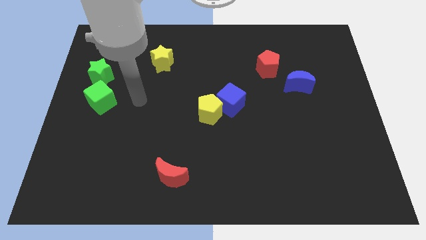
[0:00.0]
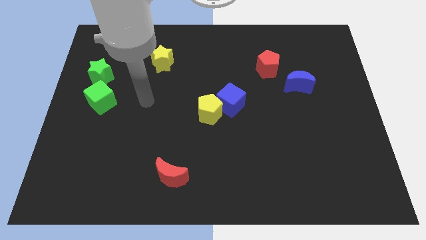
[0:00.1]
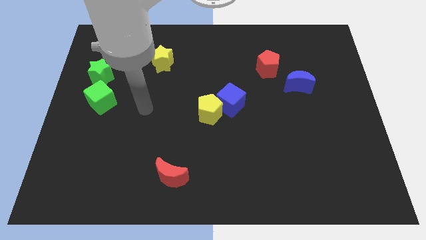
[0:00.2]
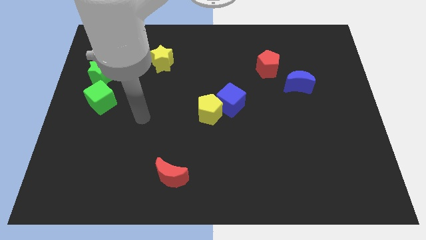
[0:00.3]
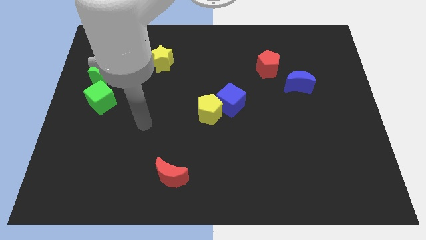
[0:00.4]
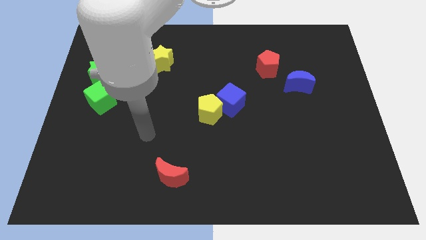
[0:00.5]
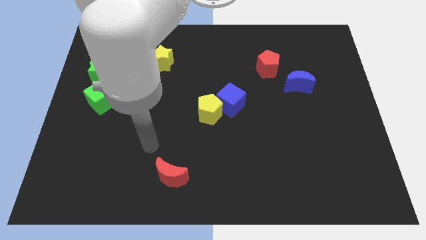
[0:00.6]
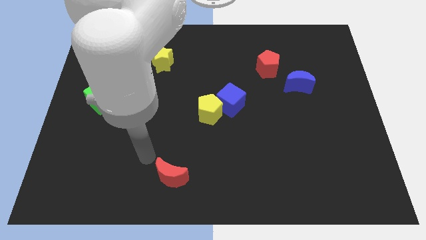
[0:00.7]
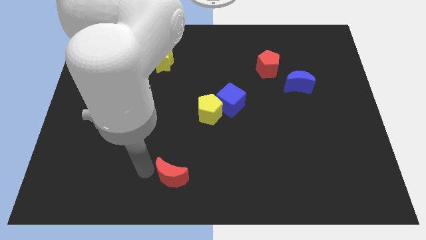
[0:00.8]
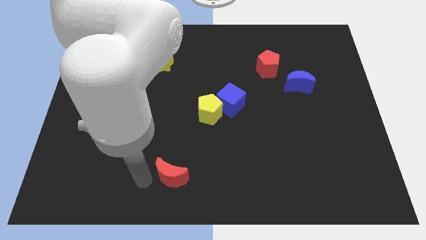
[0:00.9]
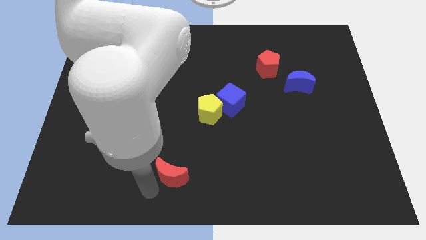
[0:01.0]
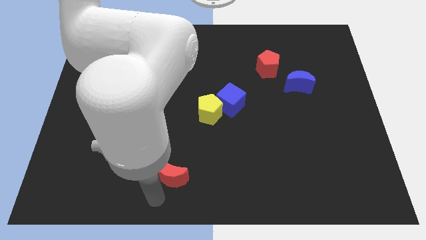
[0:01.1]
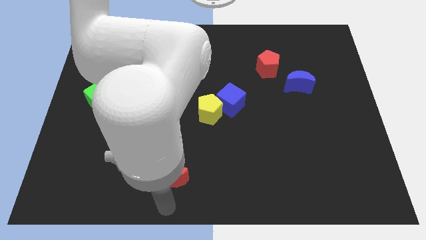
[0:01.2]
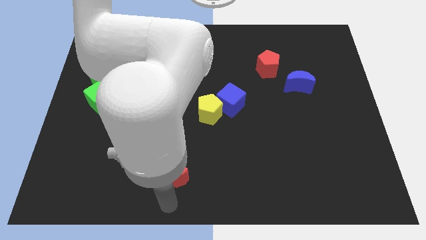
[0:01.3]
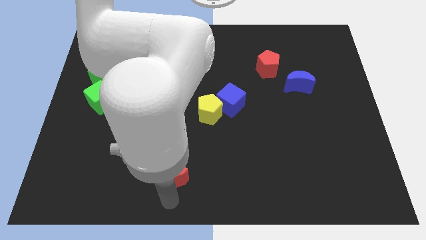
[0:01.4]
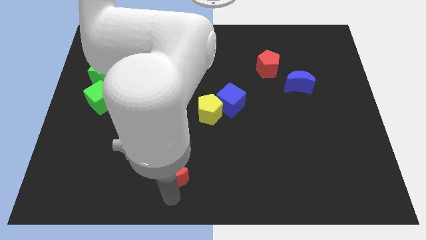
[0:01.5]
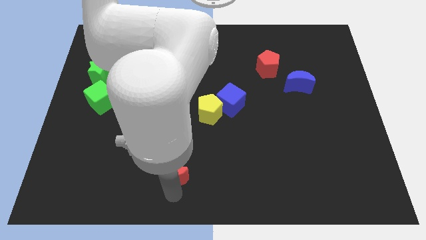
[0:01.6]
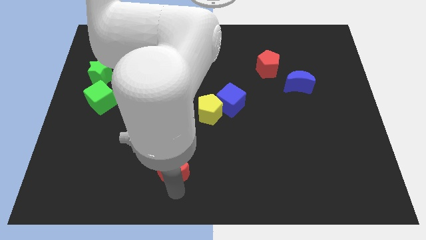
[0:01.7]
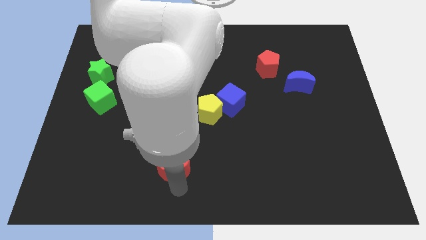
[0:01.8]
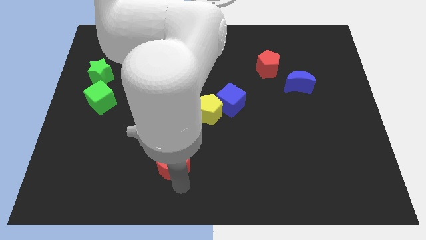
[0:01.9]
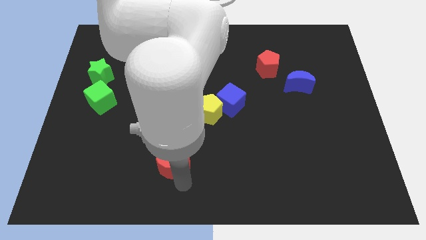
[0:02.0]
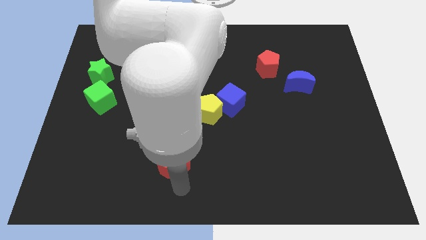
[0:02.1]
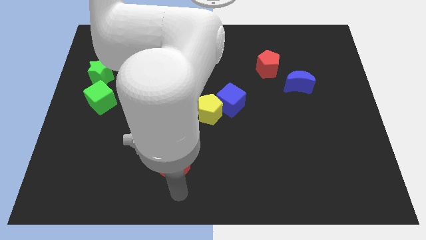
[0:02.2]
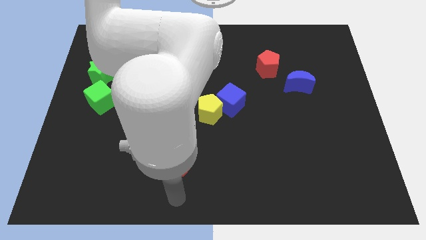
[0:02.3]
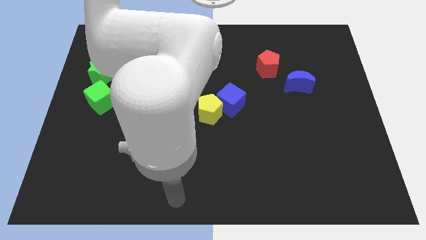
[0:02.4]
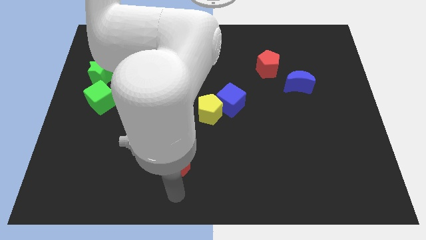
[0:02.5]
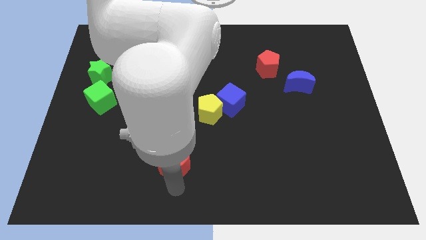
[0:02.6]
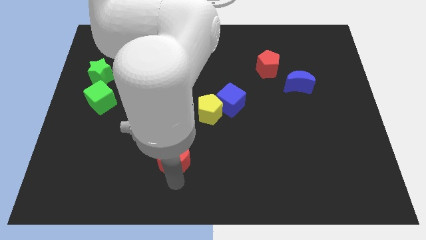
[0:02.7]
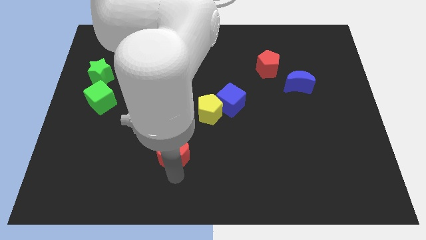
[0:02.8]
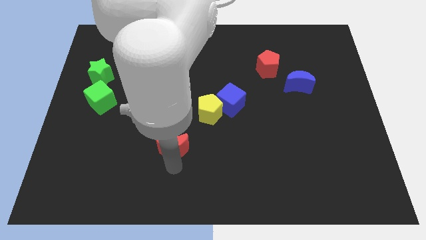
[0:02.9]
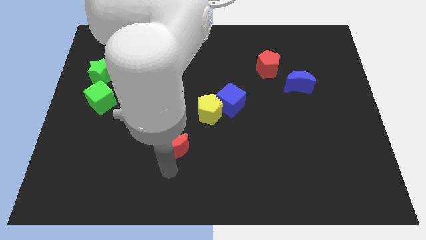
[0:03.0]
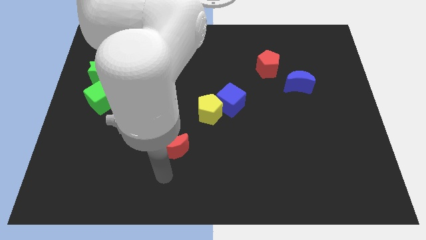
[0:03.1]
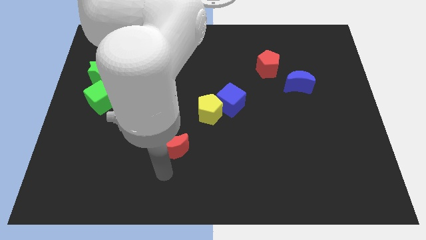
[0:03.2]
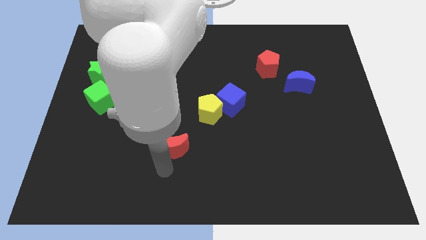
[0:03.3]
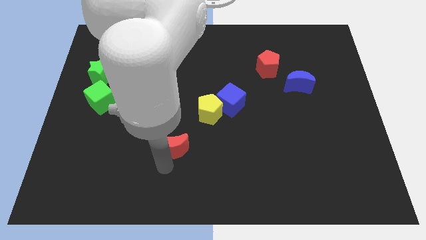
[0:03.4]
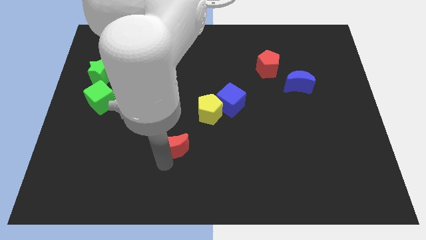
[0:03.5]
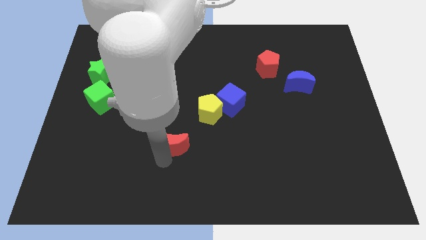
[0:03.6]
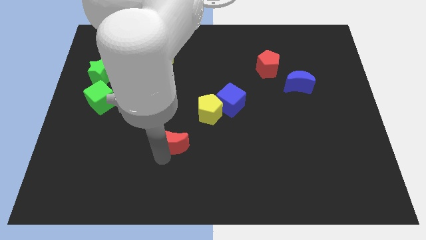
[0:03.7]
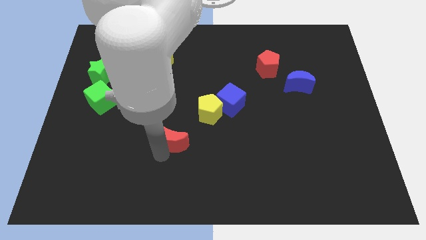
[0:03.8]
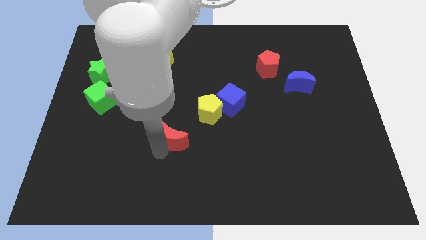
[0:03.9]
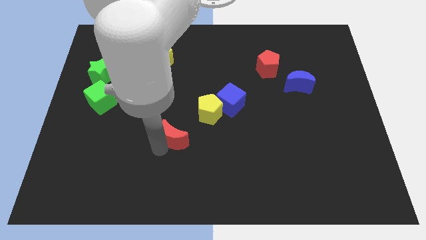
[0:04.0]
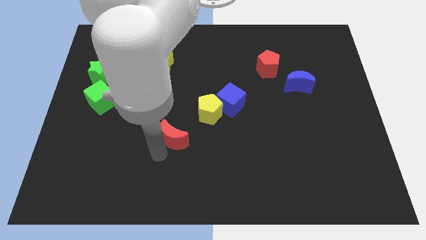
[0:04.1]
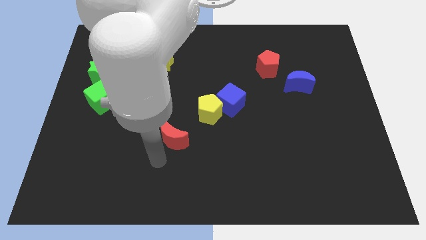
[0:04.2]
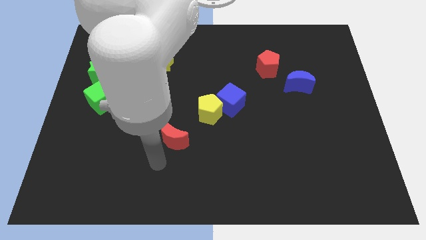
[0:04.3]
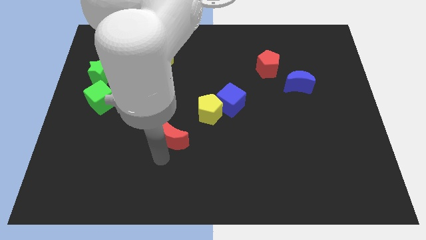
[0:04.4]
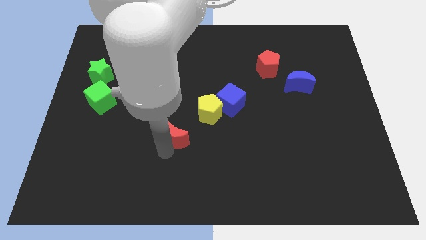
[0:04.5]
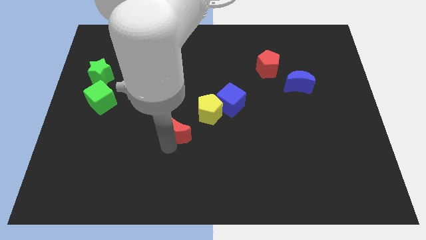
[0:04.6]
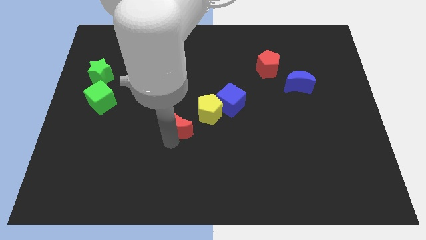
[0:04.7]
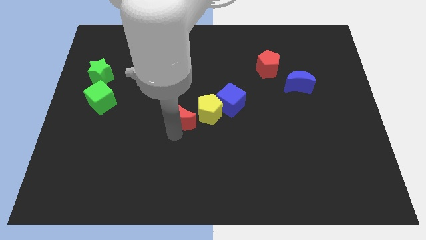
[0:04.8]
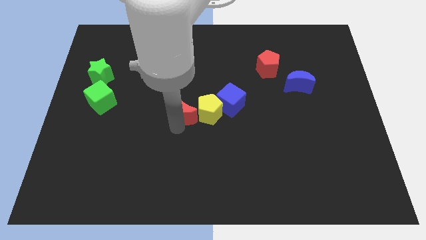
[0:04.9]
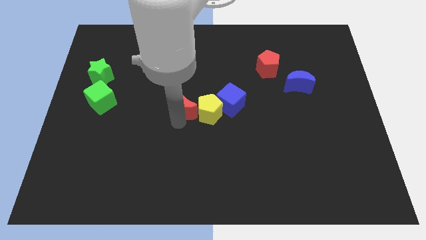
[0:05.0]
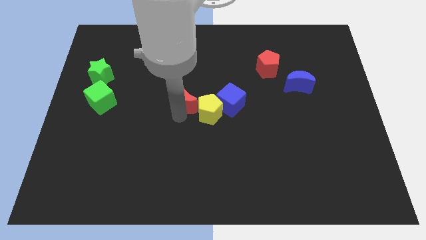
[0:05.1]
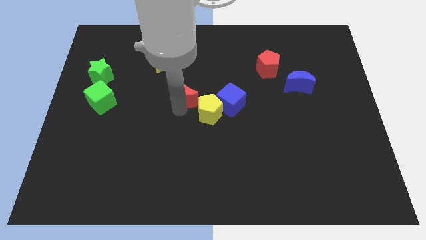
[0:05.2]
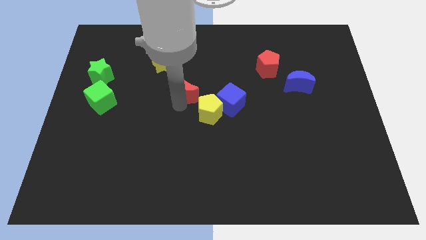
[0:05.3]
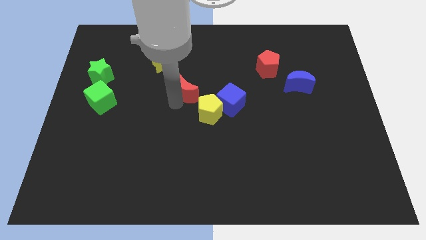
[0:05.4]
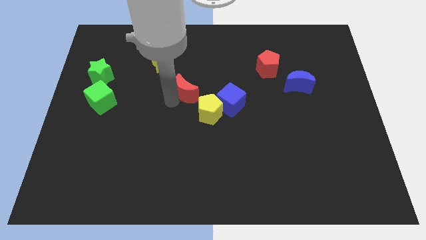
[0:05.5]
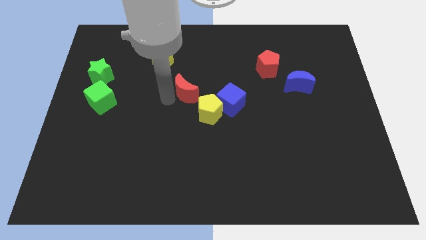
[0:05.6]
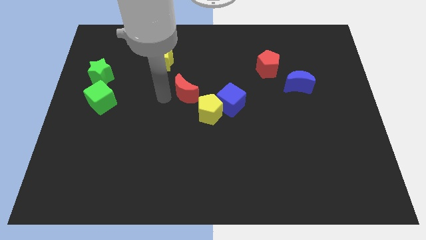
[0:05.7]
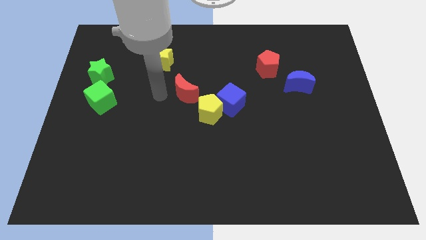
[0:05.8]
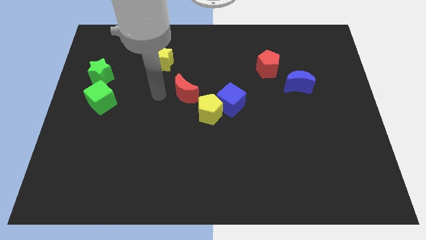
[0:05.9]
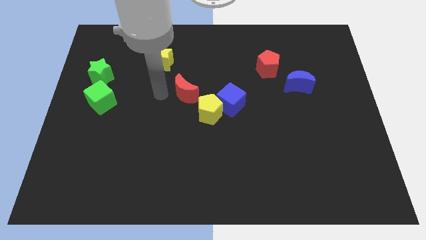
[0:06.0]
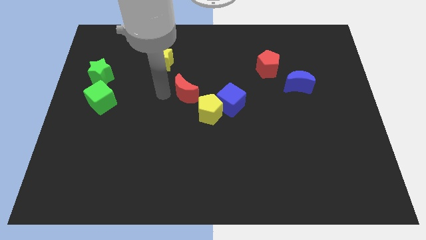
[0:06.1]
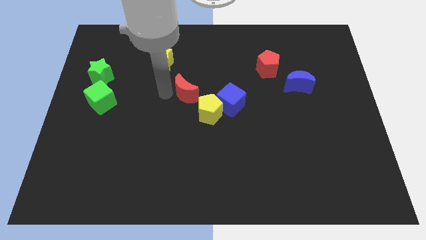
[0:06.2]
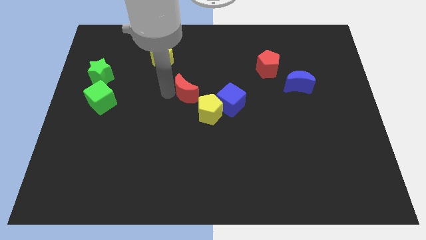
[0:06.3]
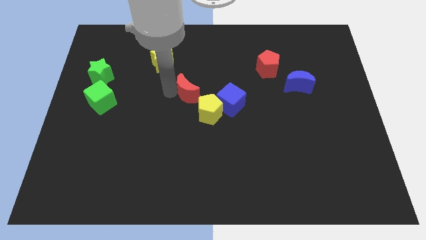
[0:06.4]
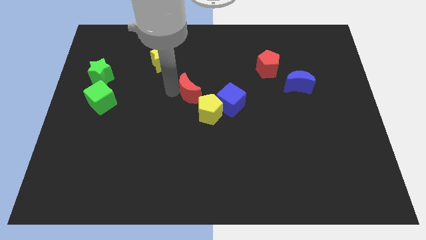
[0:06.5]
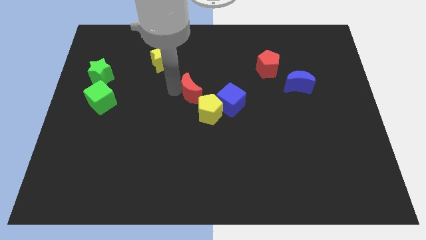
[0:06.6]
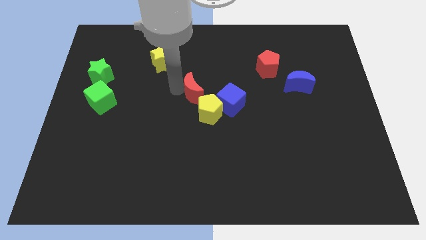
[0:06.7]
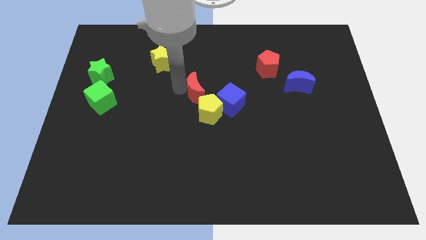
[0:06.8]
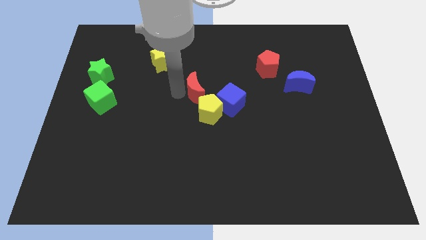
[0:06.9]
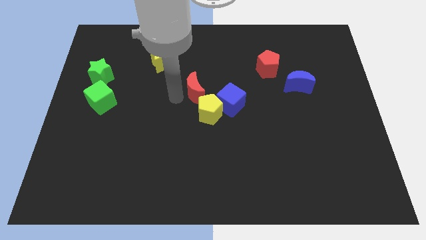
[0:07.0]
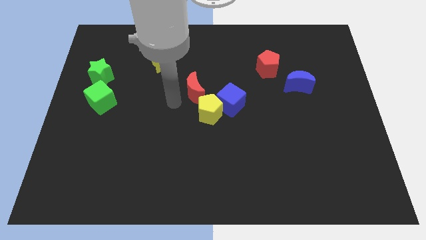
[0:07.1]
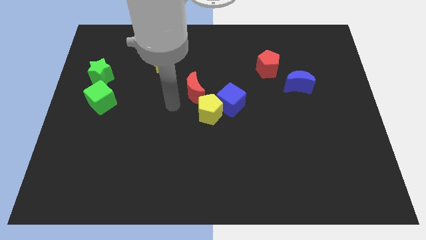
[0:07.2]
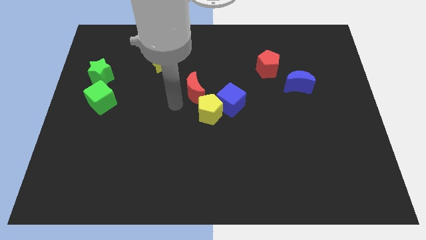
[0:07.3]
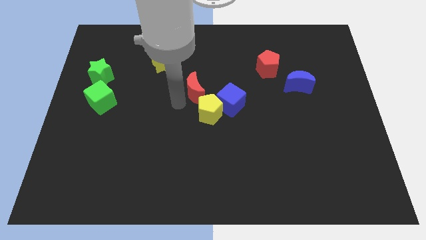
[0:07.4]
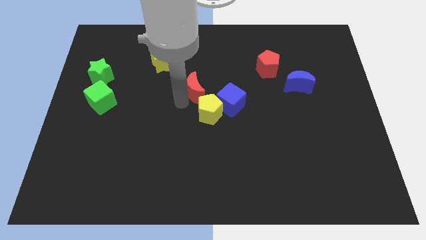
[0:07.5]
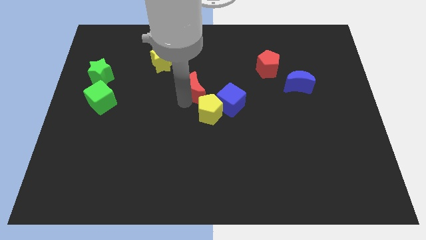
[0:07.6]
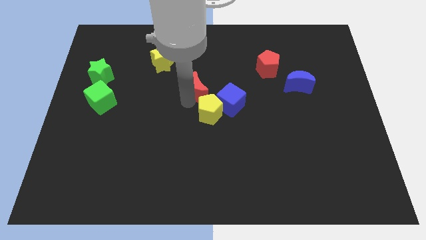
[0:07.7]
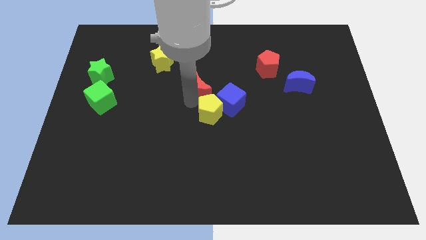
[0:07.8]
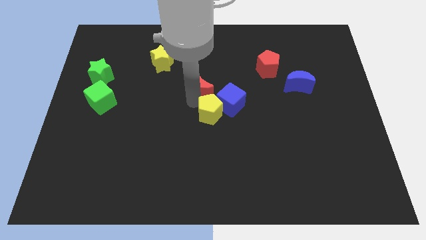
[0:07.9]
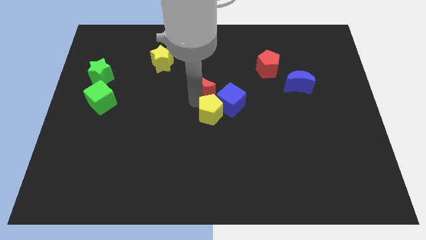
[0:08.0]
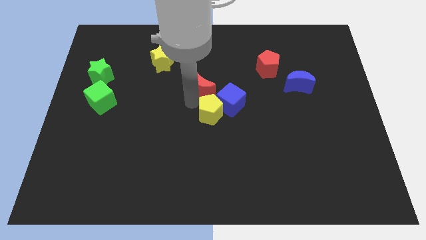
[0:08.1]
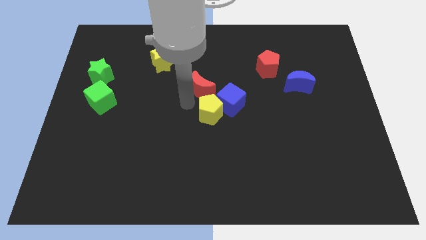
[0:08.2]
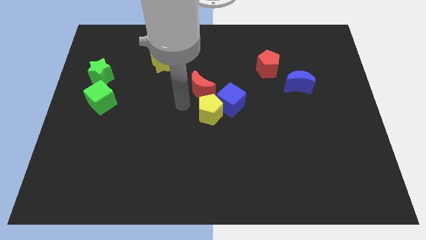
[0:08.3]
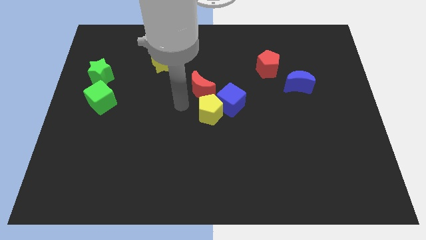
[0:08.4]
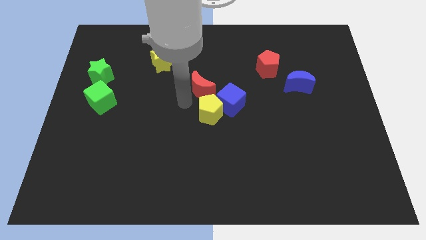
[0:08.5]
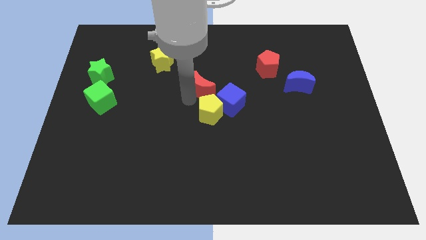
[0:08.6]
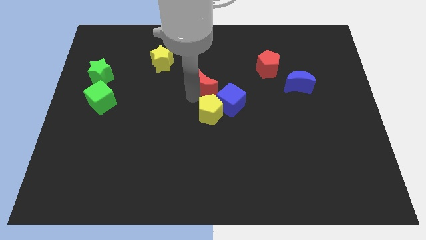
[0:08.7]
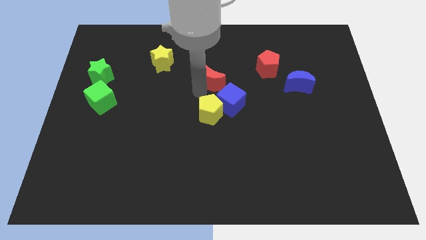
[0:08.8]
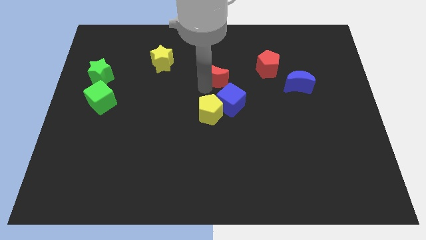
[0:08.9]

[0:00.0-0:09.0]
put the red moon just left of the red pentagon
